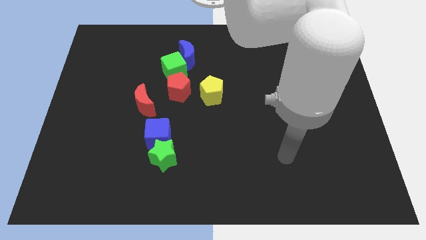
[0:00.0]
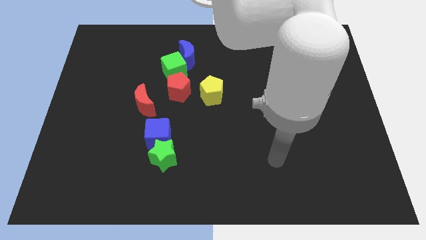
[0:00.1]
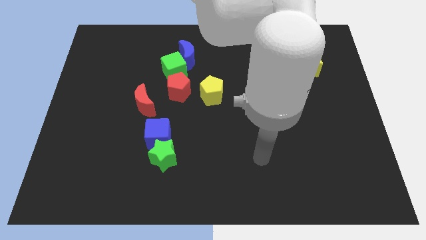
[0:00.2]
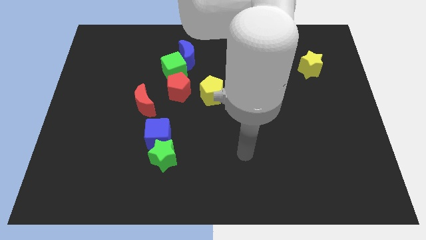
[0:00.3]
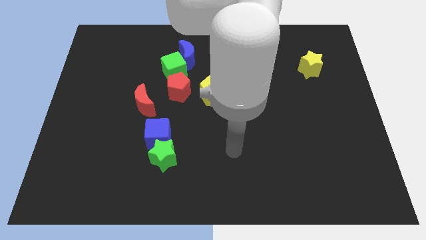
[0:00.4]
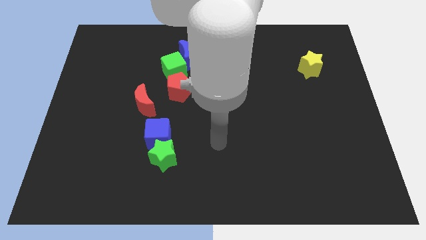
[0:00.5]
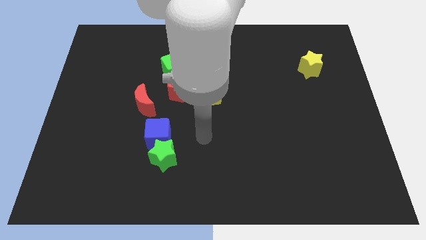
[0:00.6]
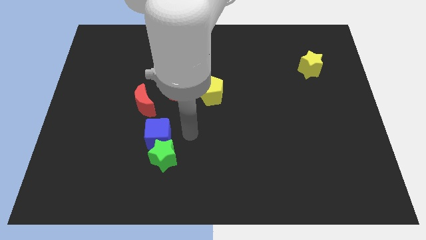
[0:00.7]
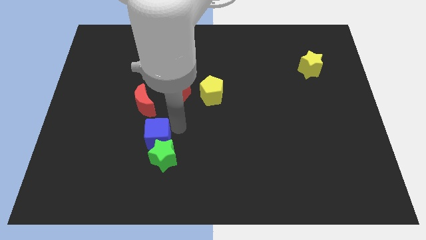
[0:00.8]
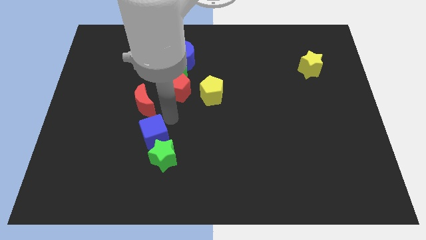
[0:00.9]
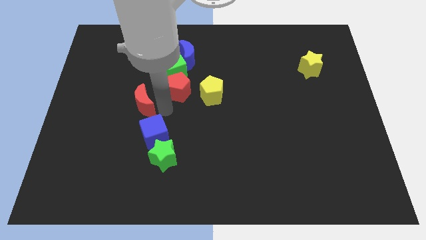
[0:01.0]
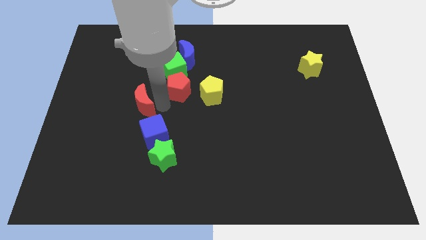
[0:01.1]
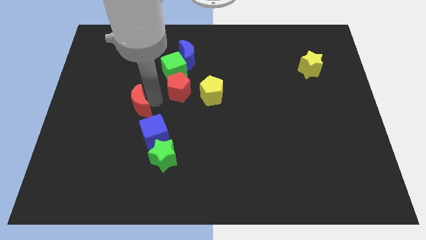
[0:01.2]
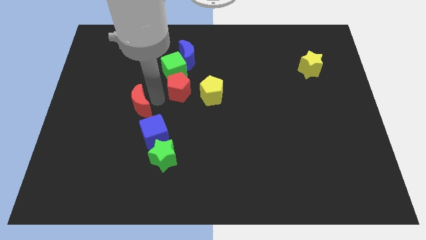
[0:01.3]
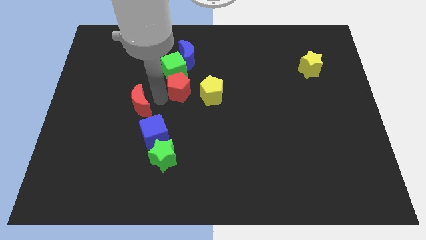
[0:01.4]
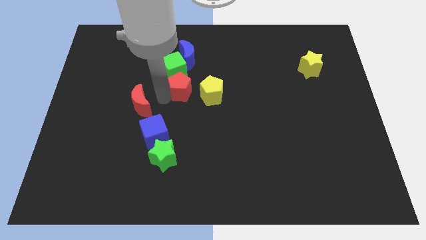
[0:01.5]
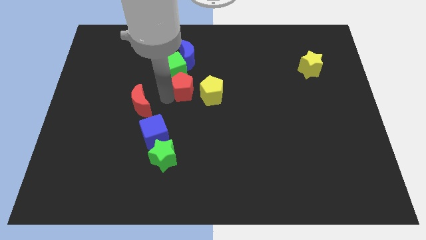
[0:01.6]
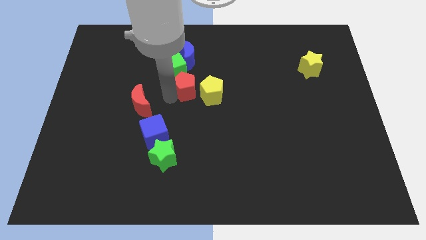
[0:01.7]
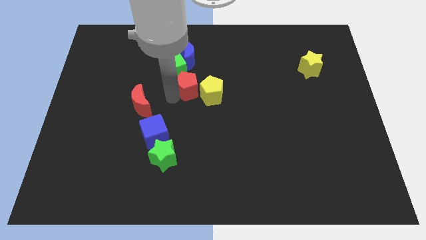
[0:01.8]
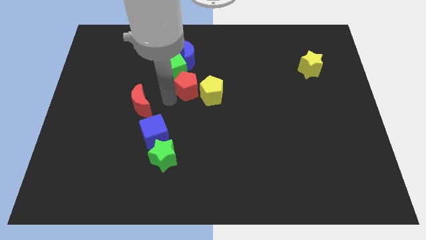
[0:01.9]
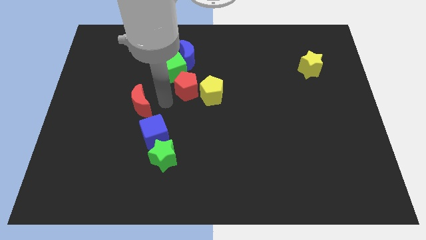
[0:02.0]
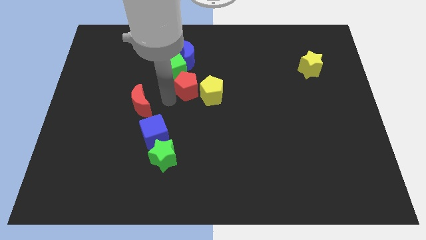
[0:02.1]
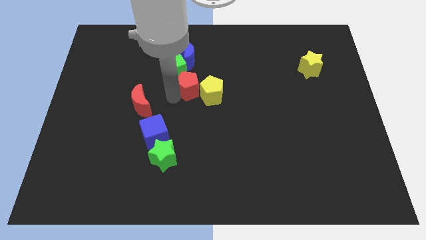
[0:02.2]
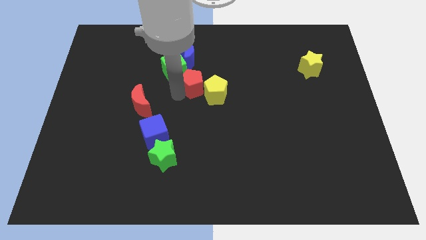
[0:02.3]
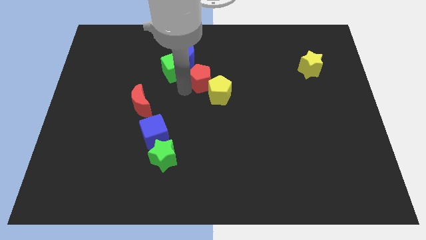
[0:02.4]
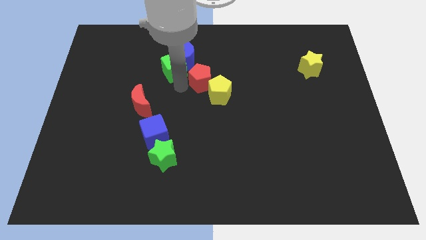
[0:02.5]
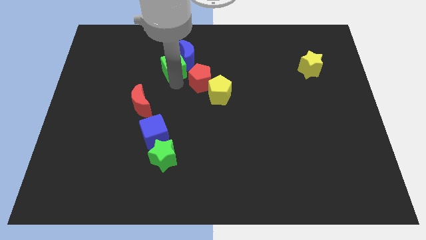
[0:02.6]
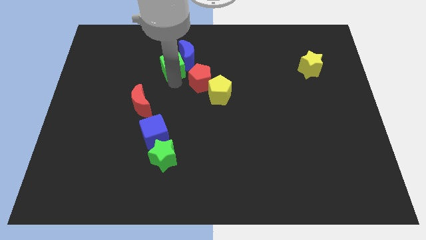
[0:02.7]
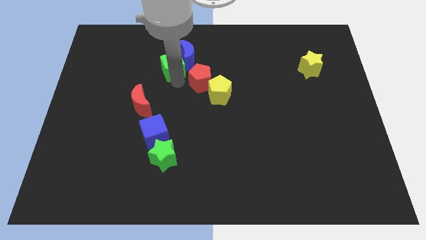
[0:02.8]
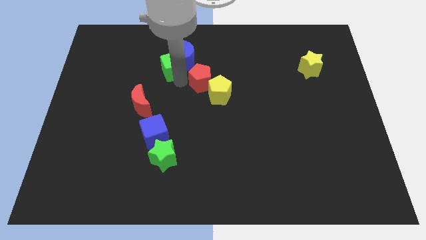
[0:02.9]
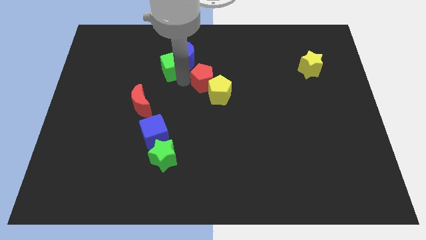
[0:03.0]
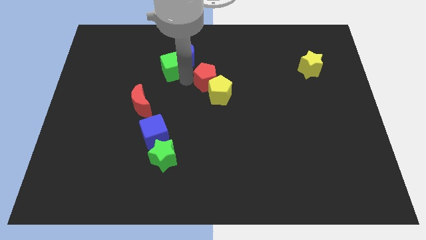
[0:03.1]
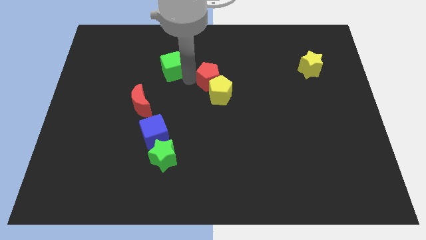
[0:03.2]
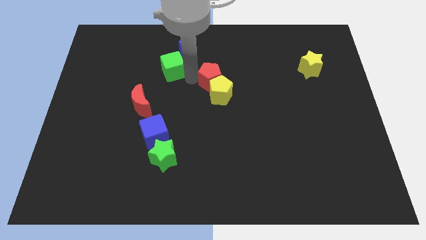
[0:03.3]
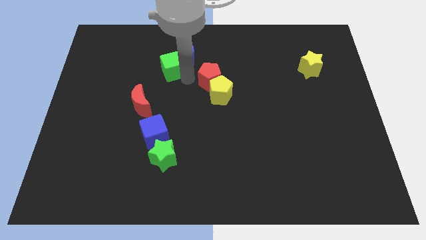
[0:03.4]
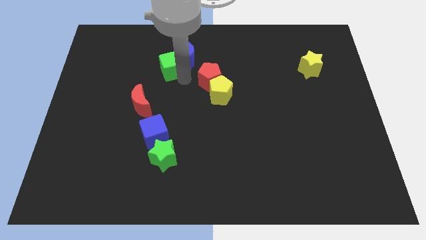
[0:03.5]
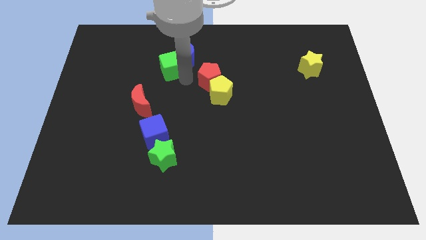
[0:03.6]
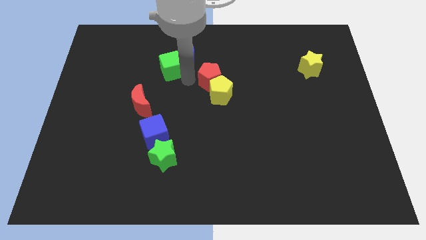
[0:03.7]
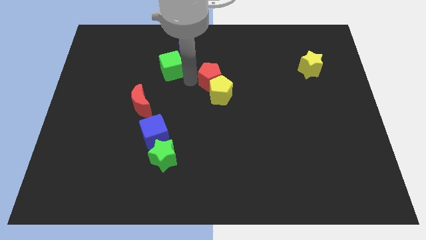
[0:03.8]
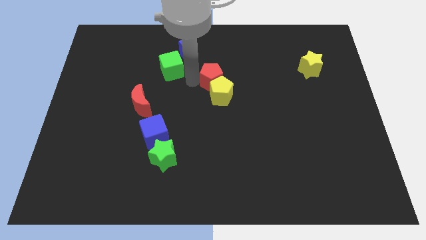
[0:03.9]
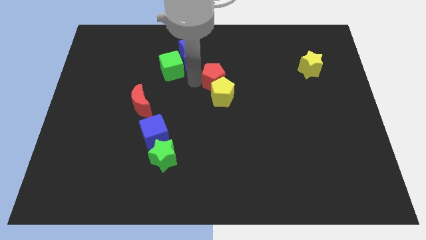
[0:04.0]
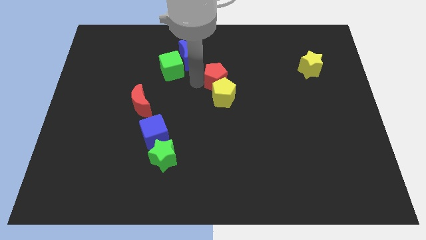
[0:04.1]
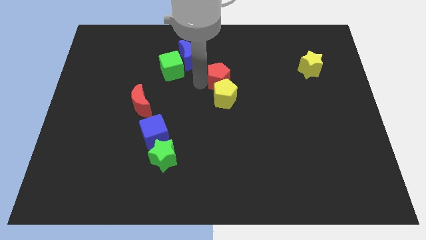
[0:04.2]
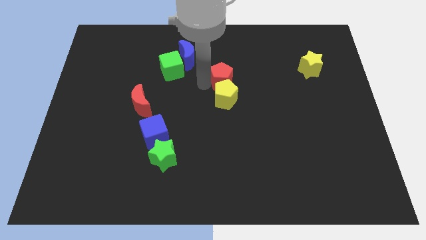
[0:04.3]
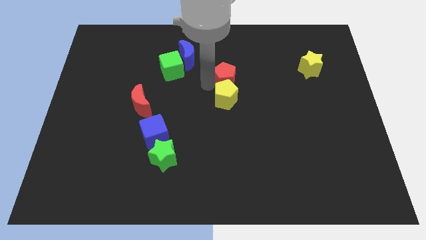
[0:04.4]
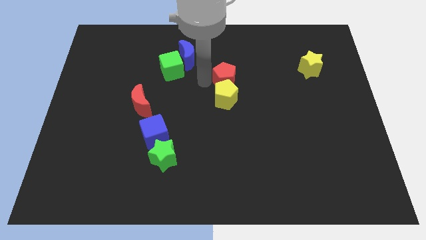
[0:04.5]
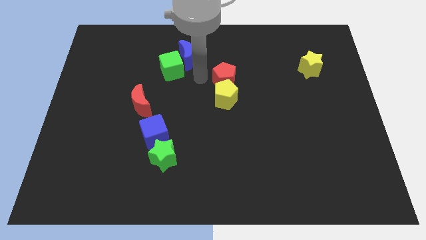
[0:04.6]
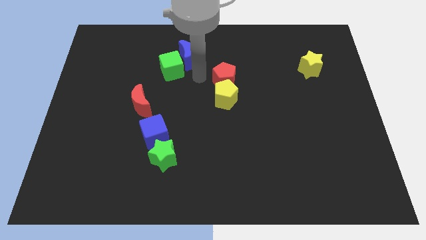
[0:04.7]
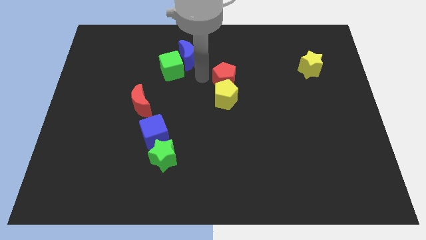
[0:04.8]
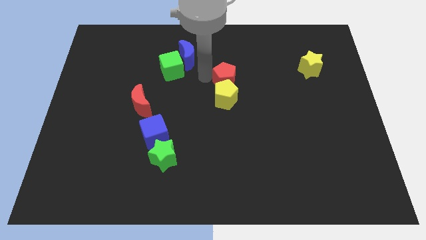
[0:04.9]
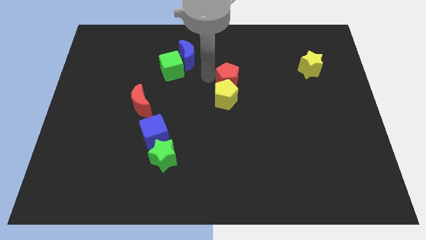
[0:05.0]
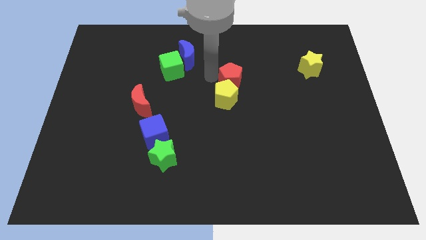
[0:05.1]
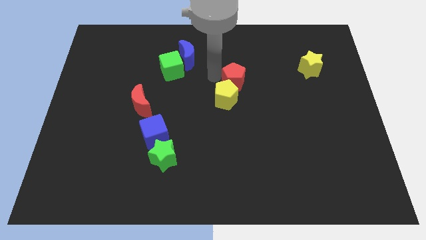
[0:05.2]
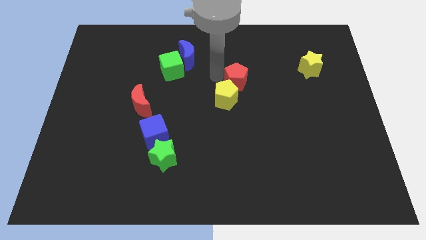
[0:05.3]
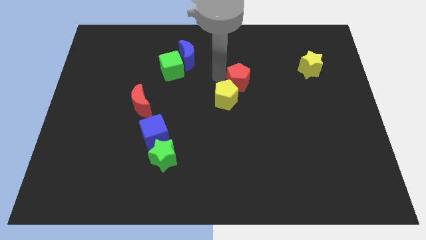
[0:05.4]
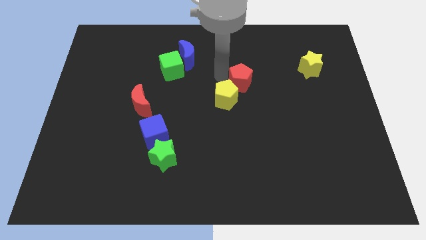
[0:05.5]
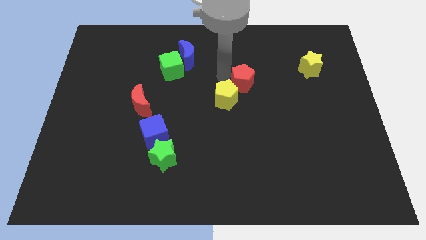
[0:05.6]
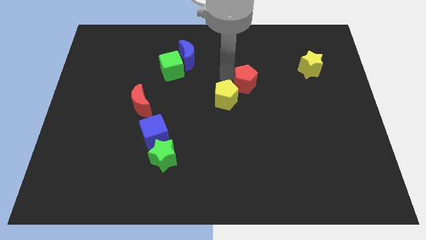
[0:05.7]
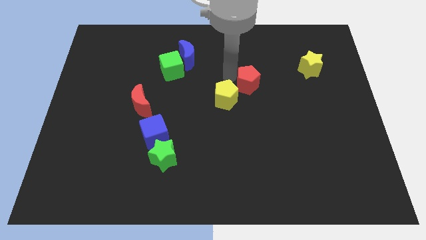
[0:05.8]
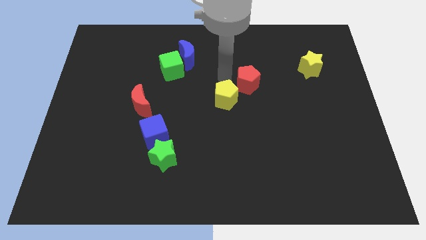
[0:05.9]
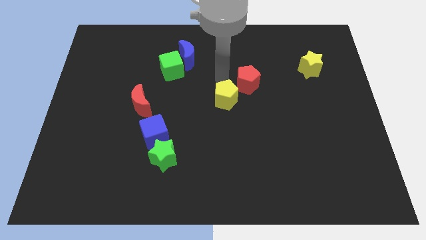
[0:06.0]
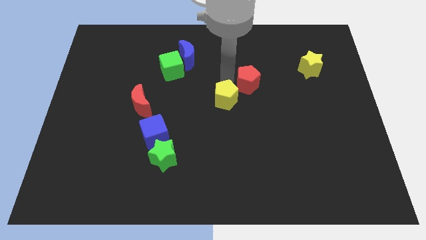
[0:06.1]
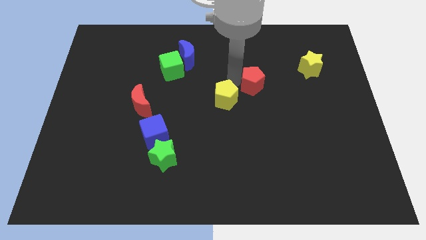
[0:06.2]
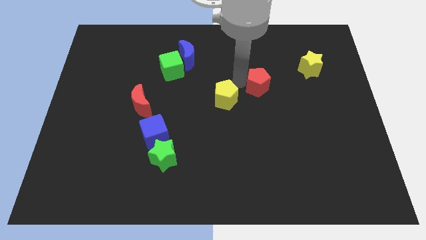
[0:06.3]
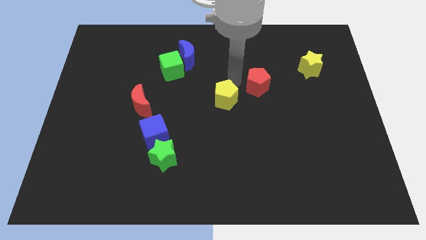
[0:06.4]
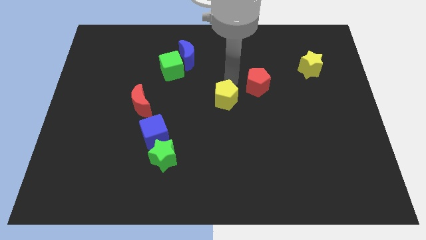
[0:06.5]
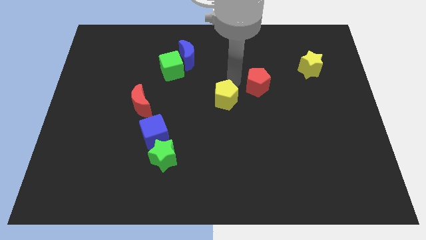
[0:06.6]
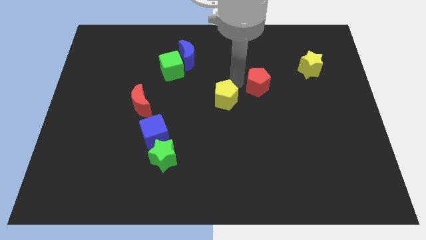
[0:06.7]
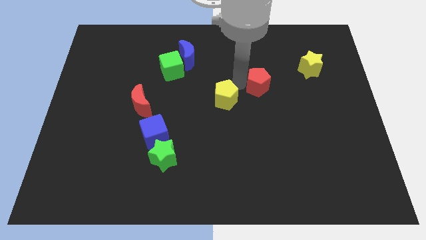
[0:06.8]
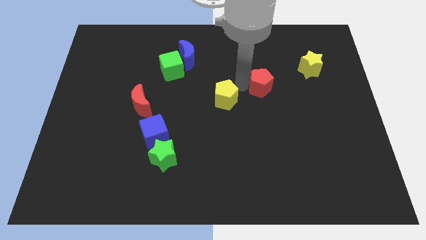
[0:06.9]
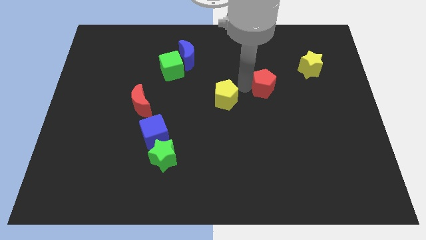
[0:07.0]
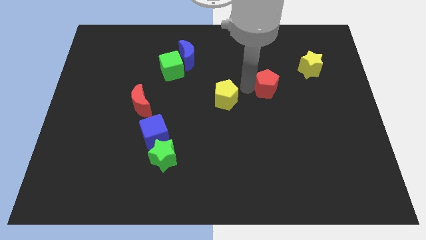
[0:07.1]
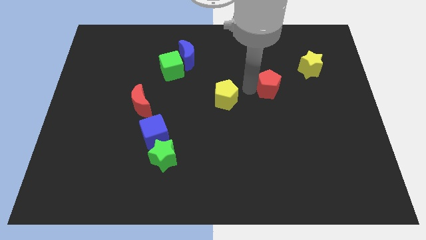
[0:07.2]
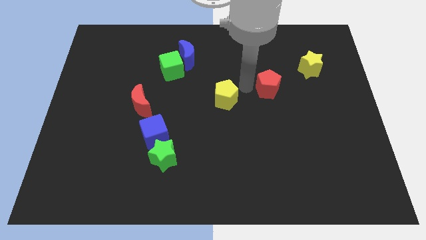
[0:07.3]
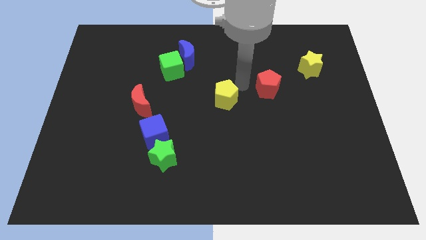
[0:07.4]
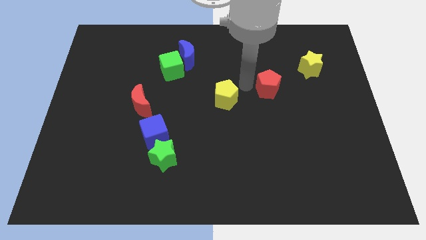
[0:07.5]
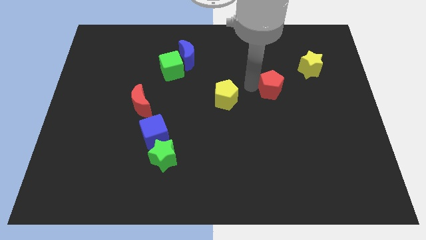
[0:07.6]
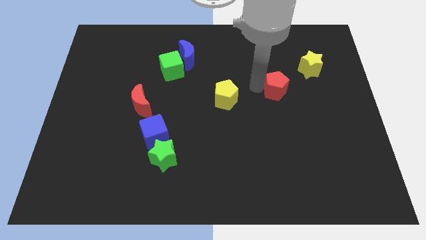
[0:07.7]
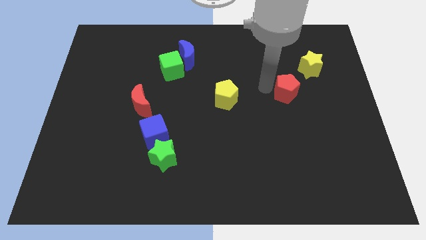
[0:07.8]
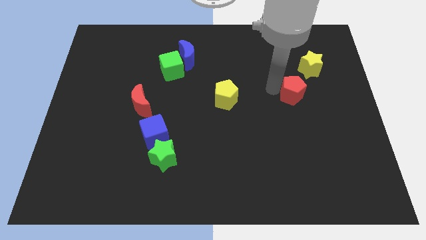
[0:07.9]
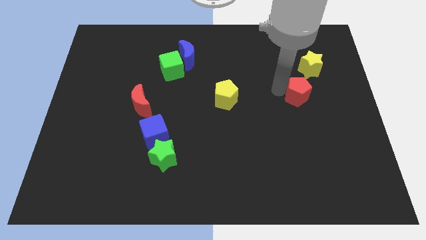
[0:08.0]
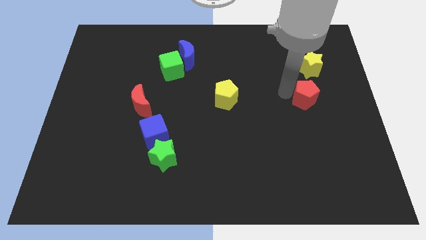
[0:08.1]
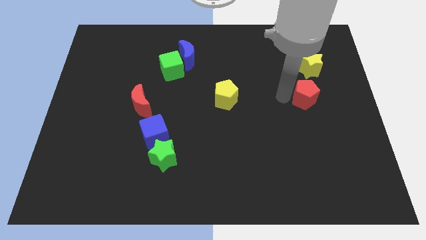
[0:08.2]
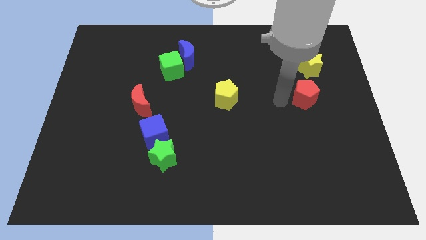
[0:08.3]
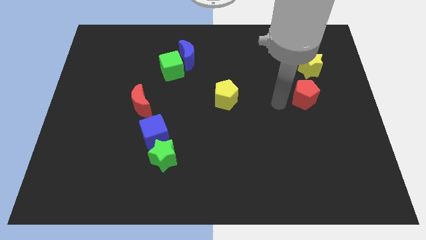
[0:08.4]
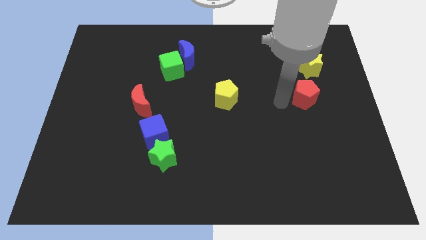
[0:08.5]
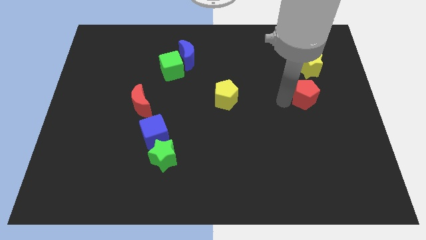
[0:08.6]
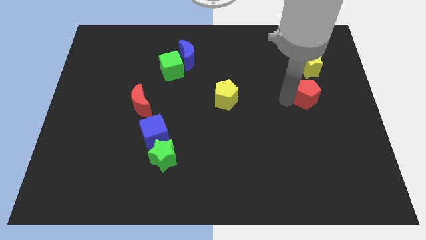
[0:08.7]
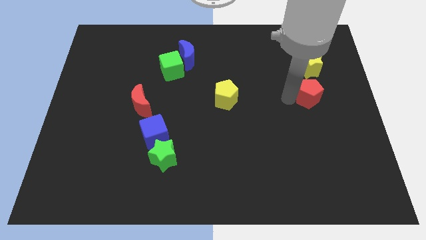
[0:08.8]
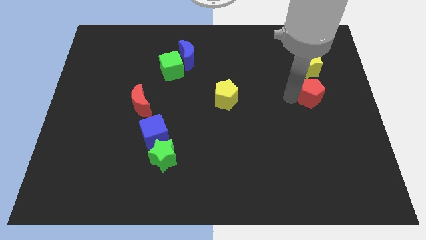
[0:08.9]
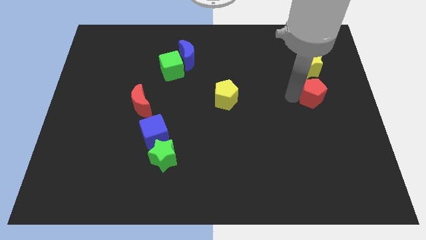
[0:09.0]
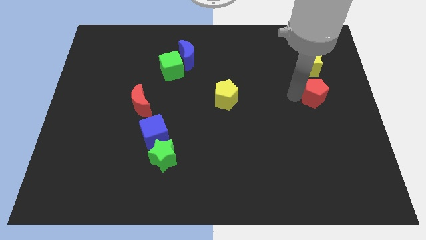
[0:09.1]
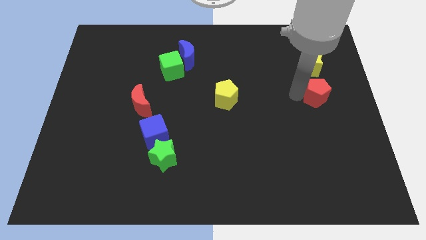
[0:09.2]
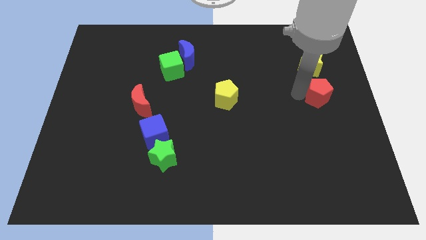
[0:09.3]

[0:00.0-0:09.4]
push the red pentagon to the right side of the board
